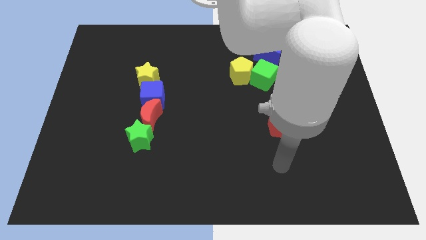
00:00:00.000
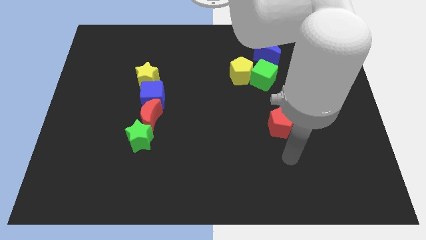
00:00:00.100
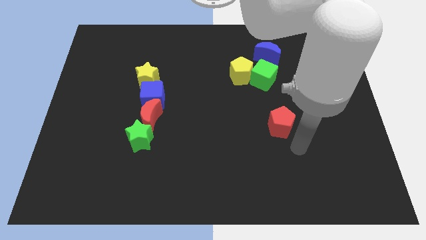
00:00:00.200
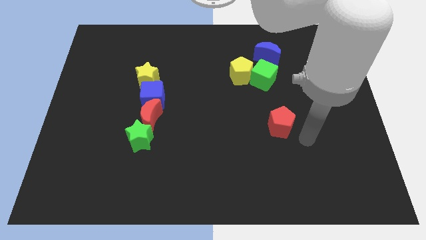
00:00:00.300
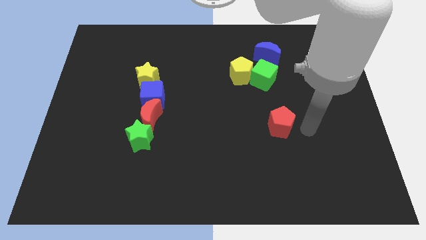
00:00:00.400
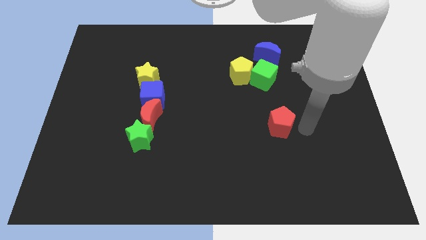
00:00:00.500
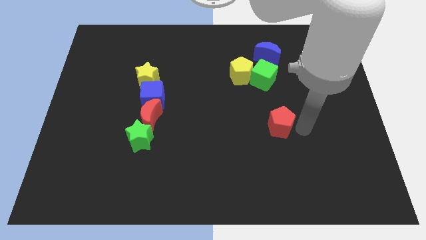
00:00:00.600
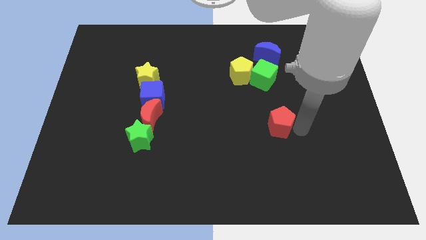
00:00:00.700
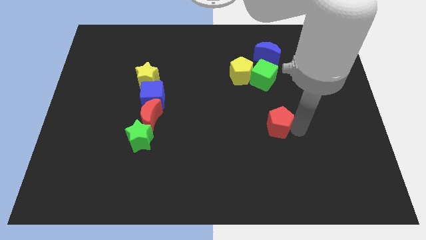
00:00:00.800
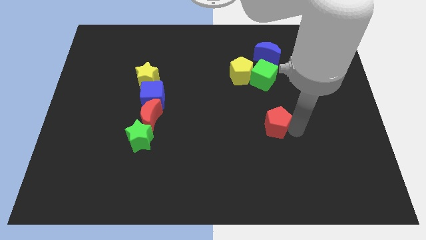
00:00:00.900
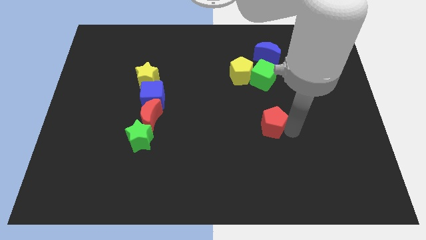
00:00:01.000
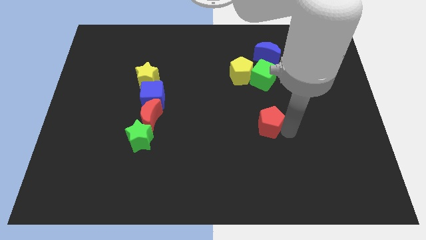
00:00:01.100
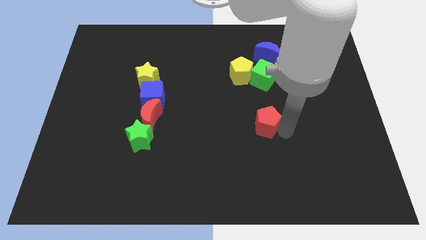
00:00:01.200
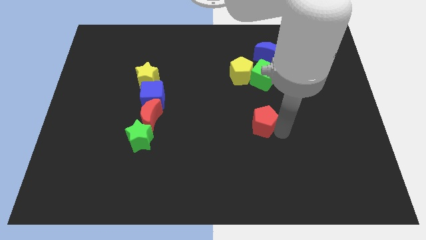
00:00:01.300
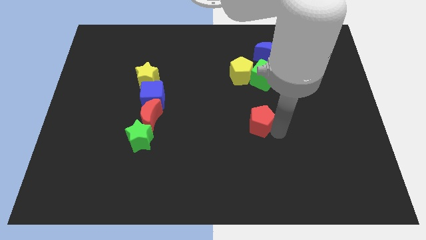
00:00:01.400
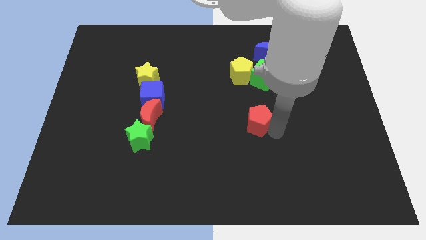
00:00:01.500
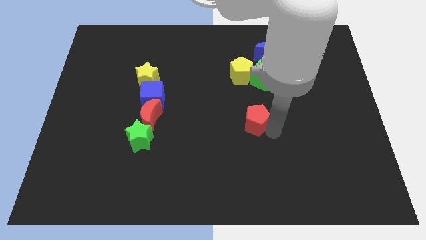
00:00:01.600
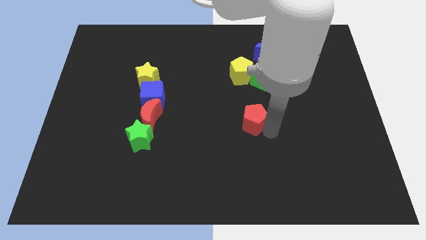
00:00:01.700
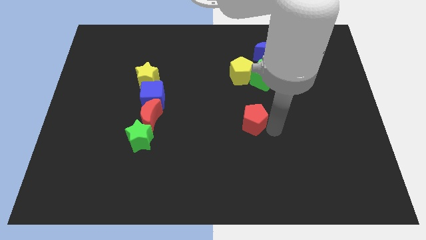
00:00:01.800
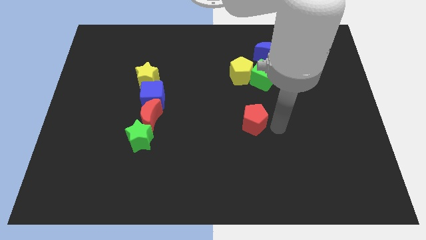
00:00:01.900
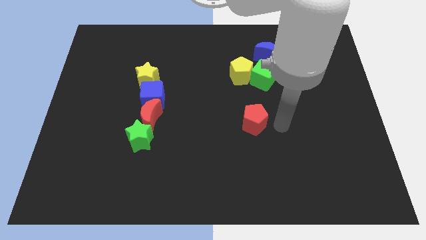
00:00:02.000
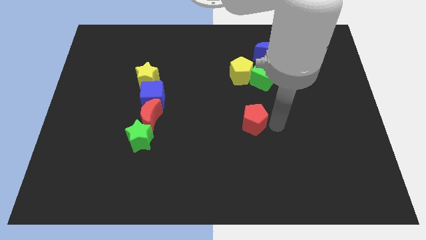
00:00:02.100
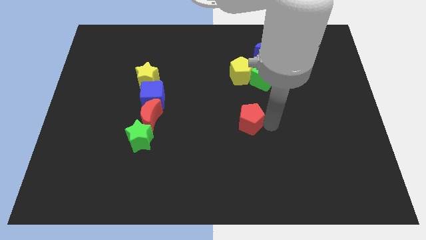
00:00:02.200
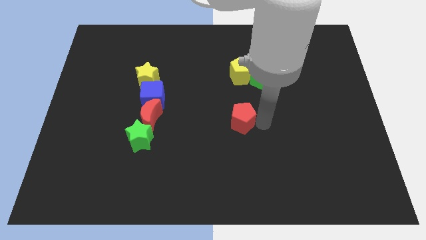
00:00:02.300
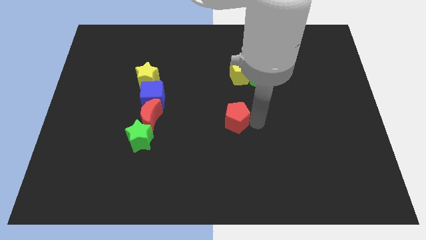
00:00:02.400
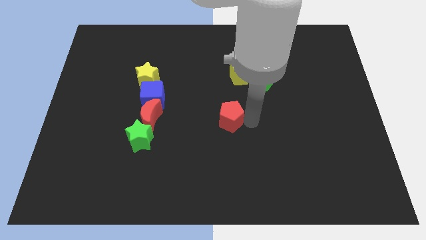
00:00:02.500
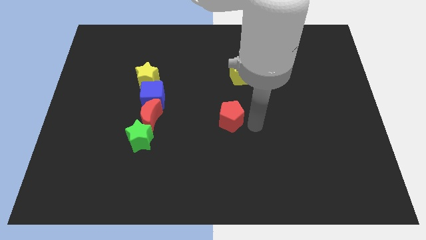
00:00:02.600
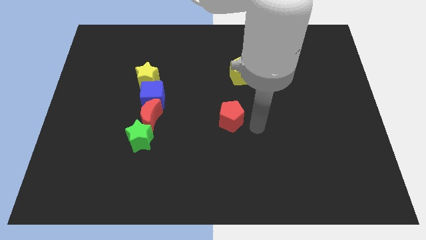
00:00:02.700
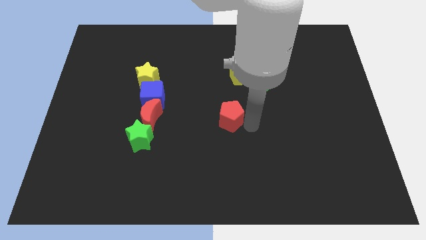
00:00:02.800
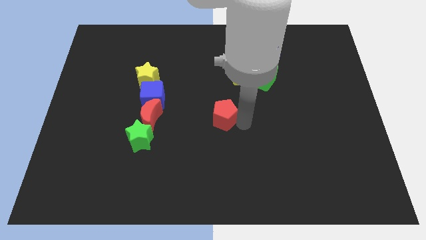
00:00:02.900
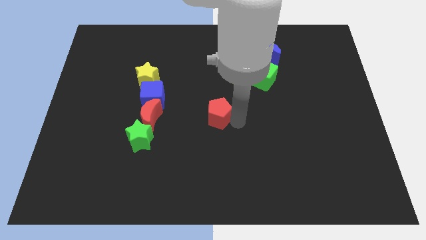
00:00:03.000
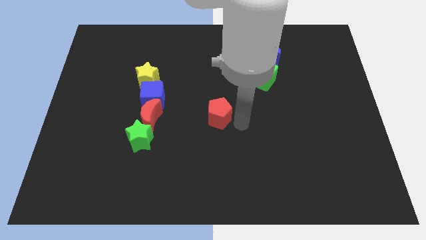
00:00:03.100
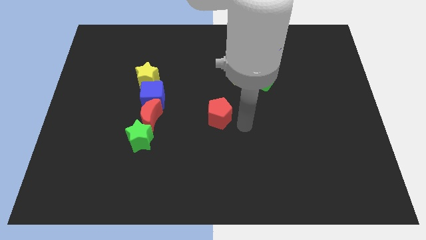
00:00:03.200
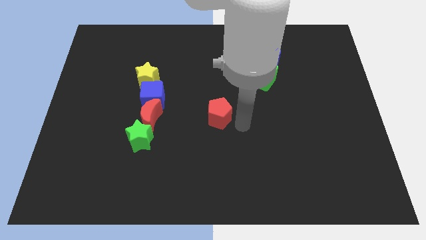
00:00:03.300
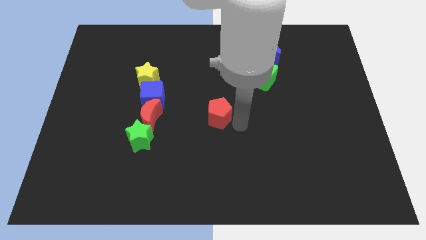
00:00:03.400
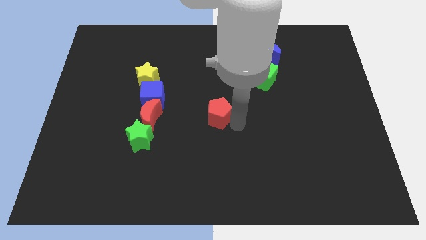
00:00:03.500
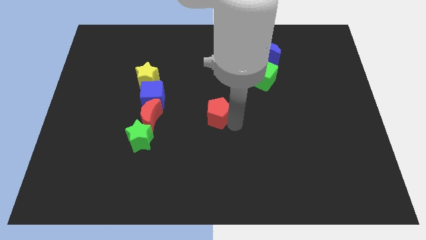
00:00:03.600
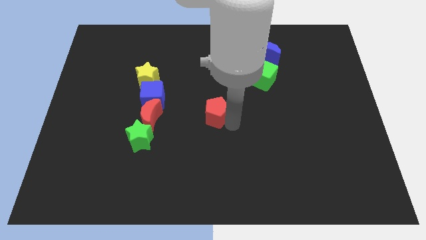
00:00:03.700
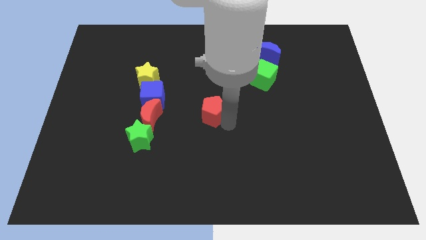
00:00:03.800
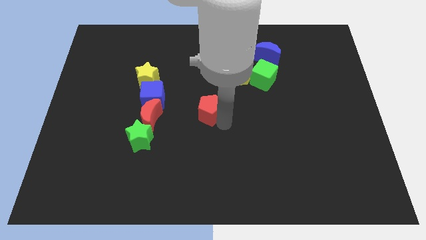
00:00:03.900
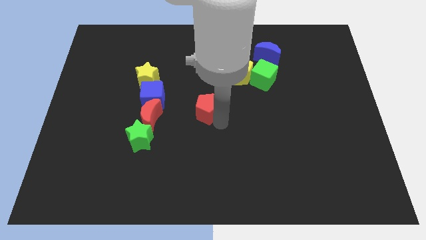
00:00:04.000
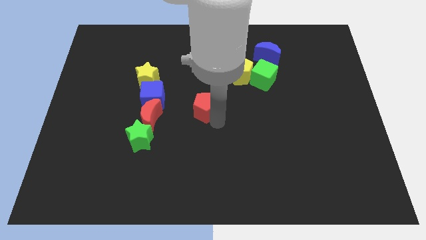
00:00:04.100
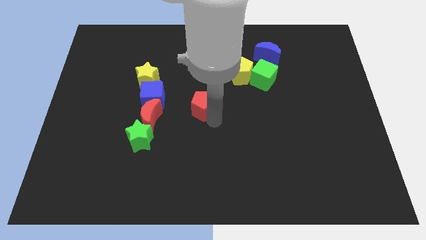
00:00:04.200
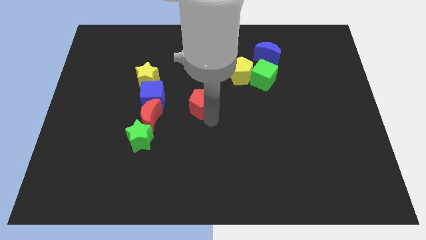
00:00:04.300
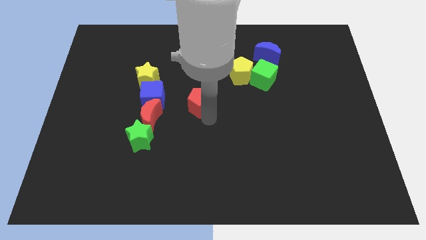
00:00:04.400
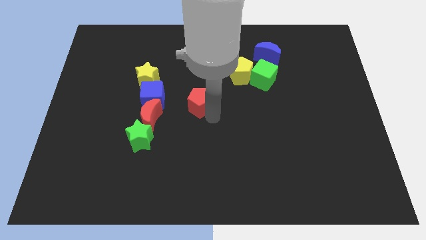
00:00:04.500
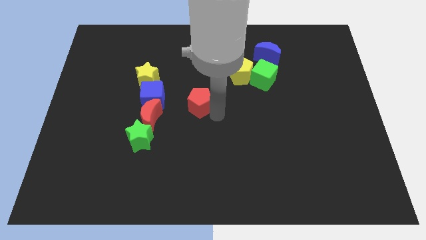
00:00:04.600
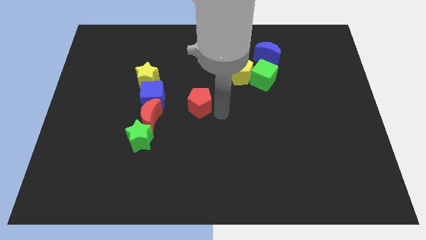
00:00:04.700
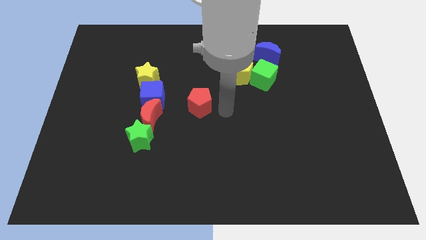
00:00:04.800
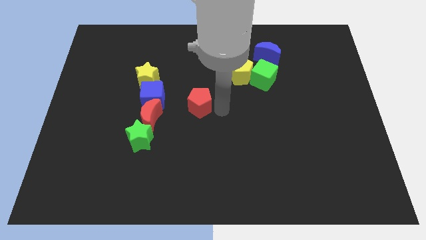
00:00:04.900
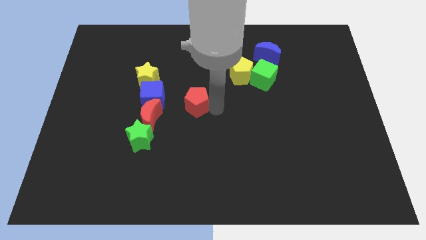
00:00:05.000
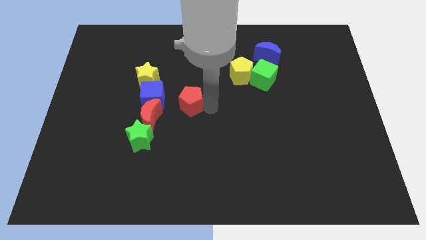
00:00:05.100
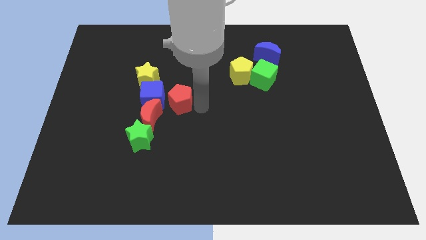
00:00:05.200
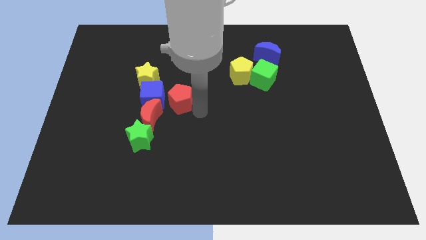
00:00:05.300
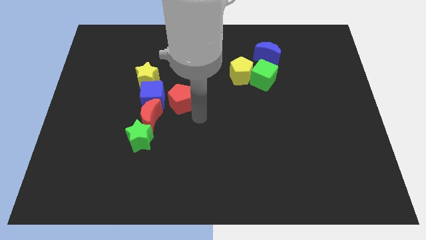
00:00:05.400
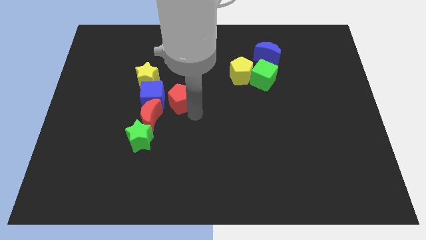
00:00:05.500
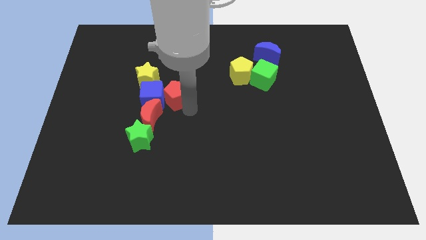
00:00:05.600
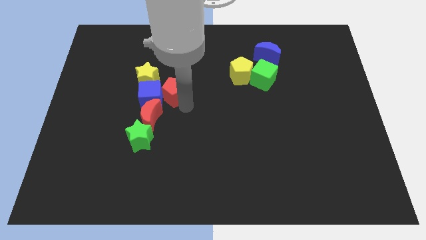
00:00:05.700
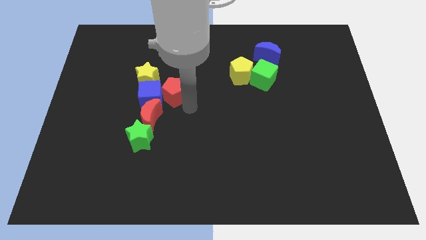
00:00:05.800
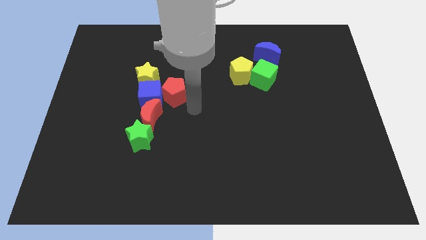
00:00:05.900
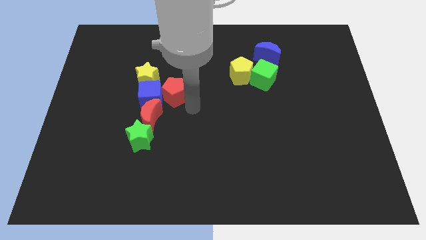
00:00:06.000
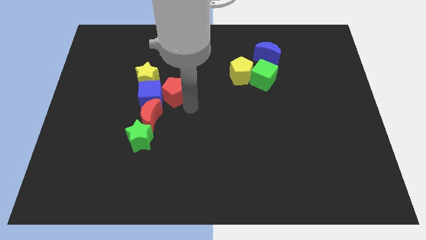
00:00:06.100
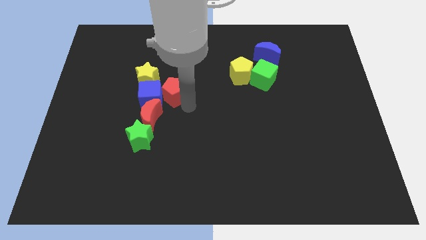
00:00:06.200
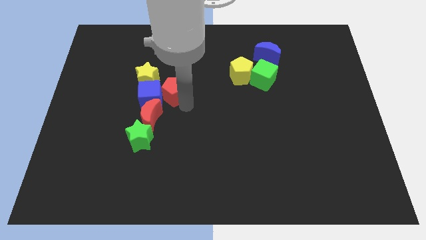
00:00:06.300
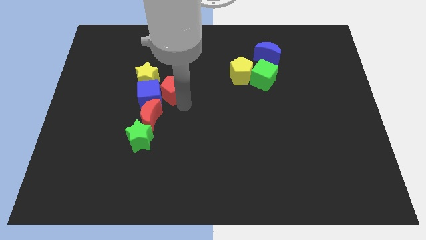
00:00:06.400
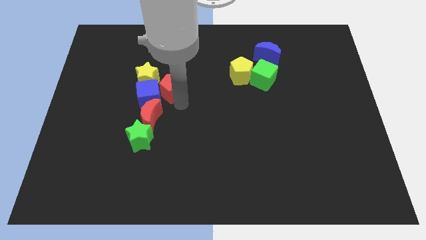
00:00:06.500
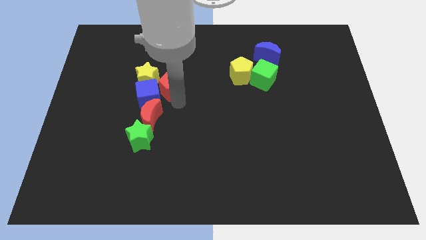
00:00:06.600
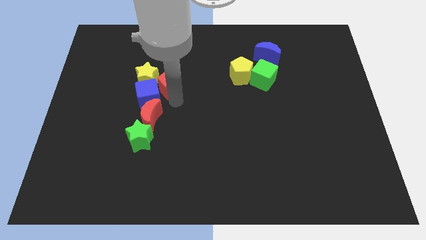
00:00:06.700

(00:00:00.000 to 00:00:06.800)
move the red pentagon to the yellow star

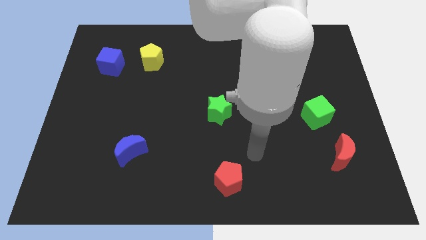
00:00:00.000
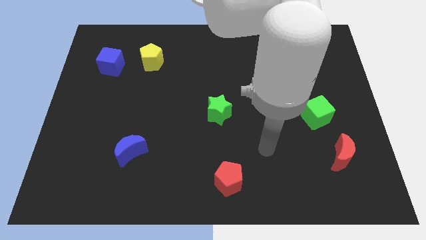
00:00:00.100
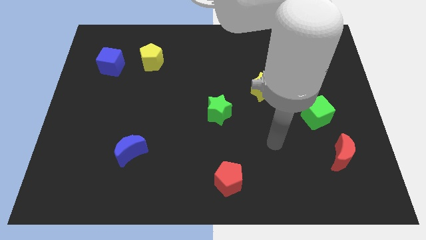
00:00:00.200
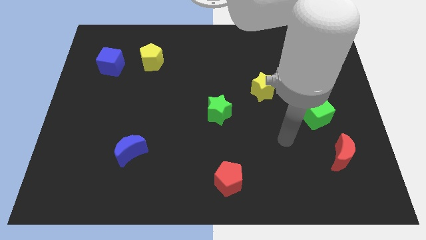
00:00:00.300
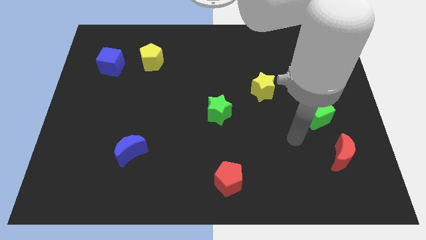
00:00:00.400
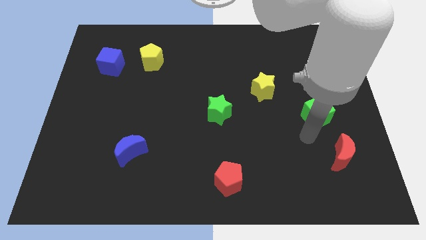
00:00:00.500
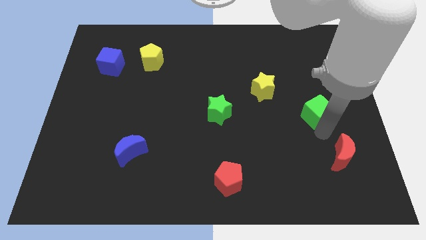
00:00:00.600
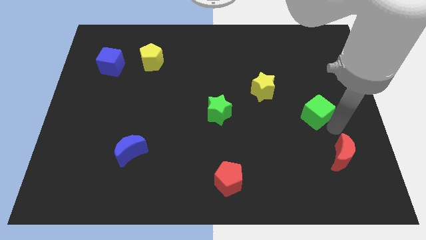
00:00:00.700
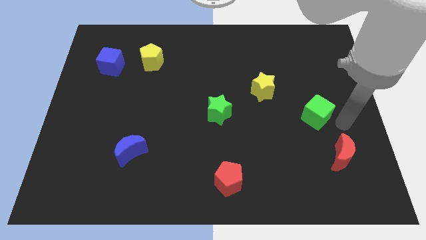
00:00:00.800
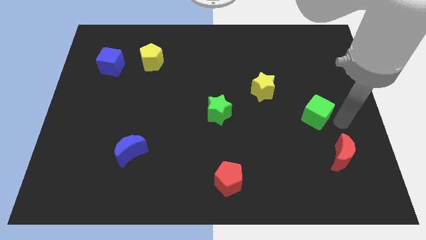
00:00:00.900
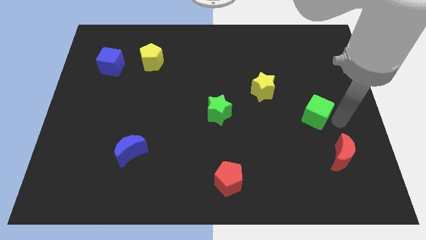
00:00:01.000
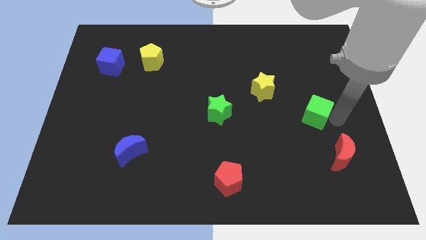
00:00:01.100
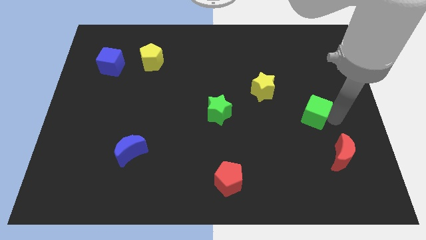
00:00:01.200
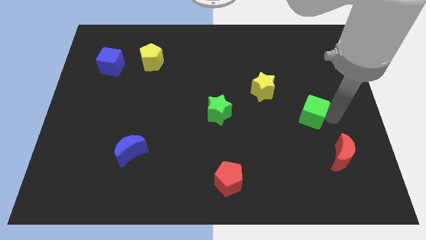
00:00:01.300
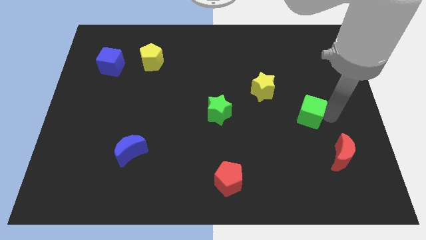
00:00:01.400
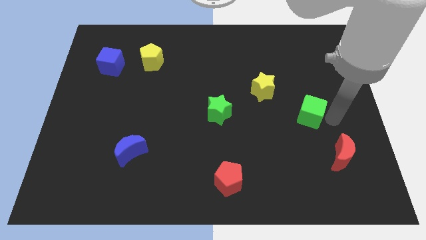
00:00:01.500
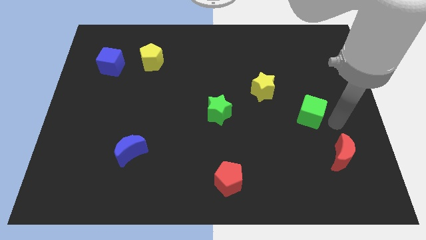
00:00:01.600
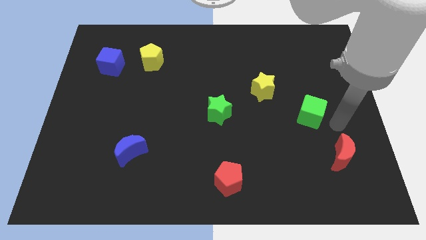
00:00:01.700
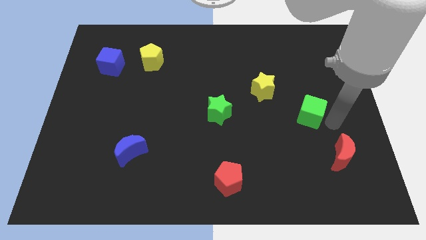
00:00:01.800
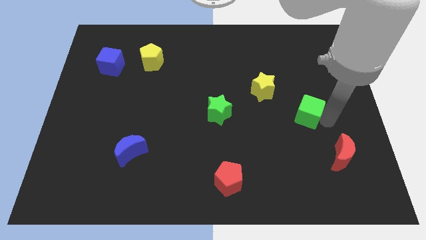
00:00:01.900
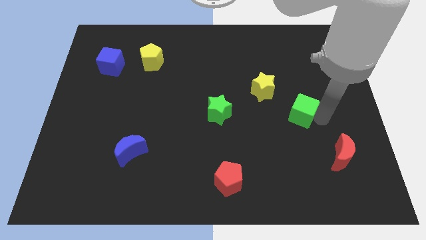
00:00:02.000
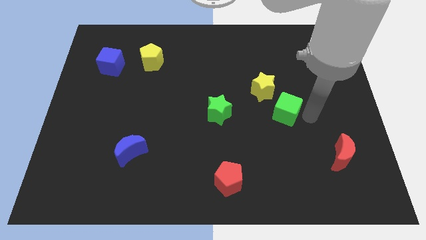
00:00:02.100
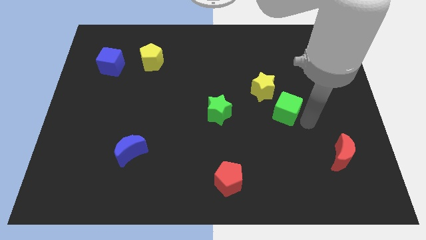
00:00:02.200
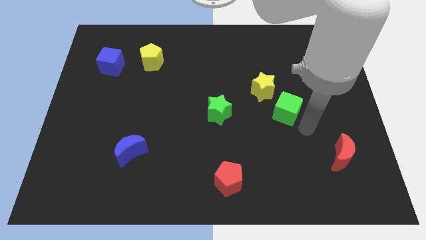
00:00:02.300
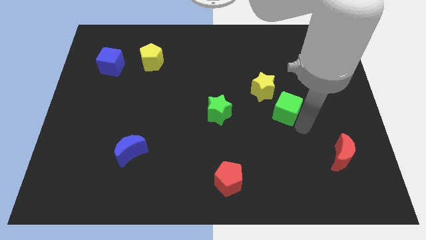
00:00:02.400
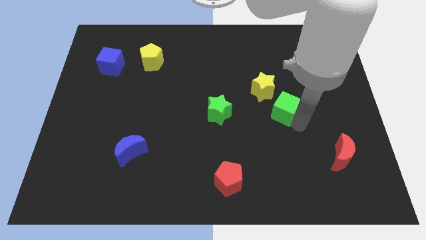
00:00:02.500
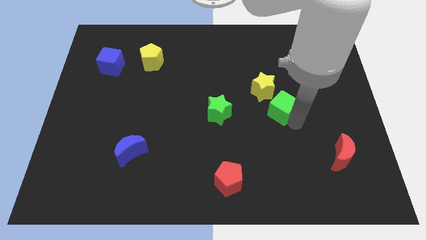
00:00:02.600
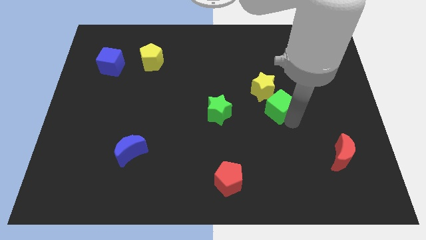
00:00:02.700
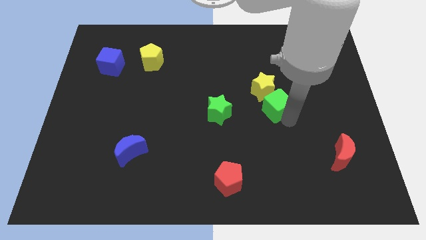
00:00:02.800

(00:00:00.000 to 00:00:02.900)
put the green cube towards the yellow star
